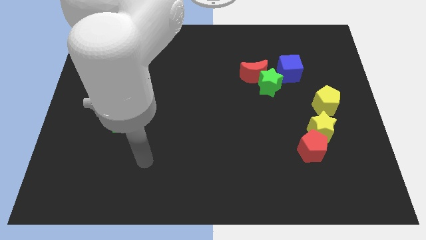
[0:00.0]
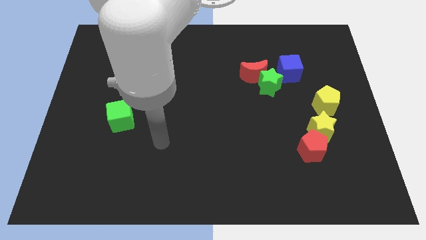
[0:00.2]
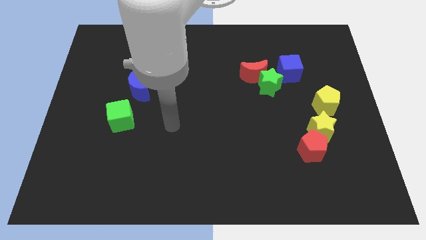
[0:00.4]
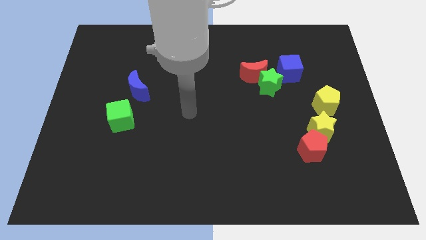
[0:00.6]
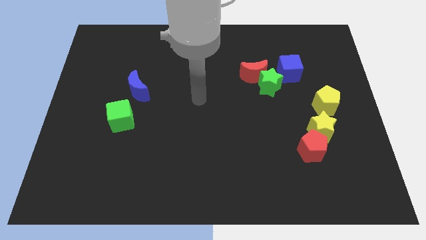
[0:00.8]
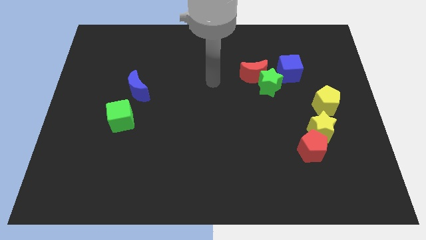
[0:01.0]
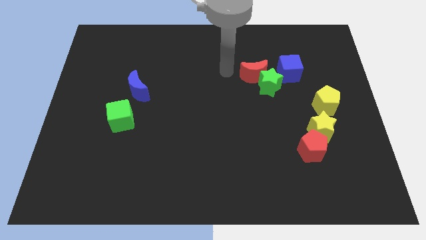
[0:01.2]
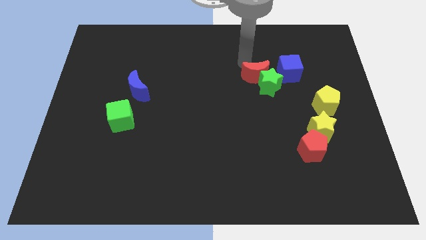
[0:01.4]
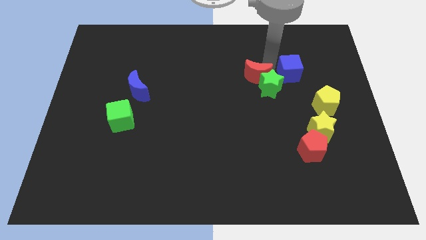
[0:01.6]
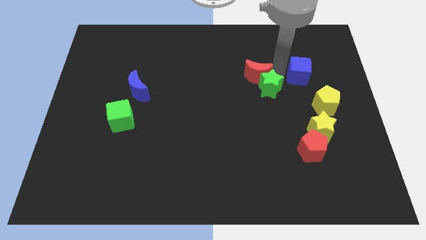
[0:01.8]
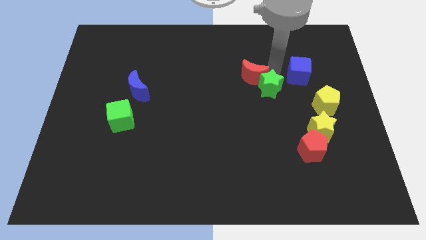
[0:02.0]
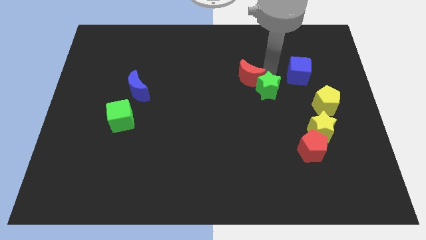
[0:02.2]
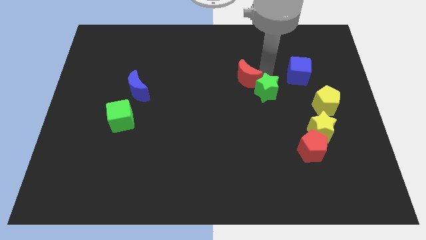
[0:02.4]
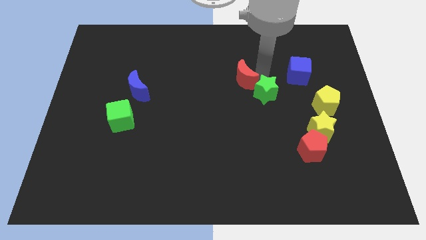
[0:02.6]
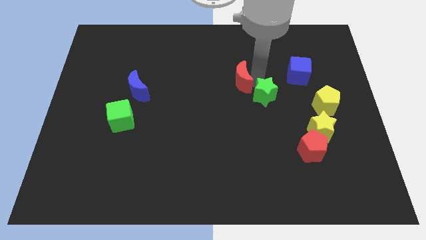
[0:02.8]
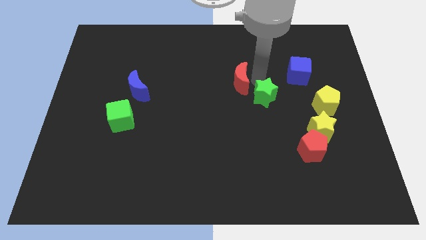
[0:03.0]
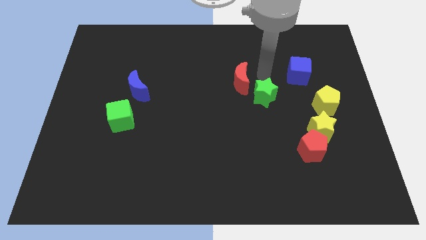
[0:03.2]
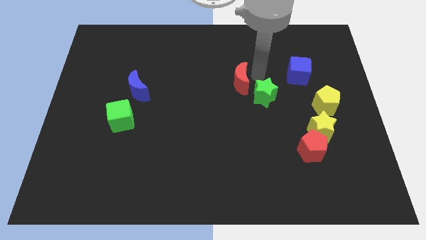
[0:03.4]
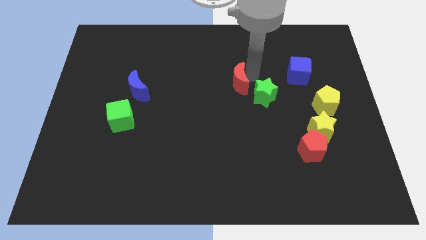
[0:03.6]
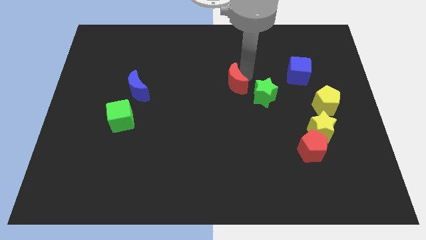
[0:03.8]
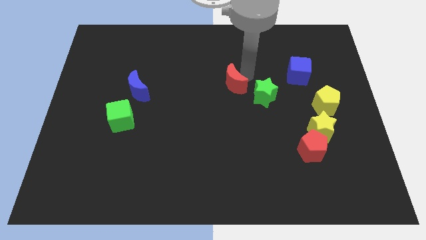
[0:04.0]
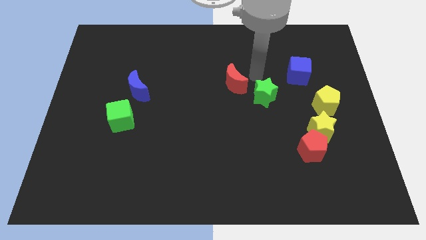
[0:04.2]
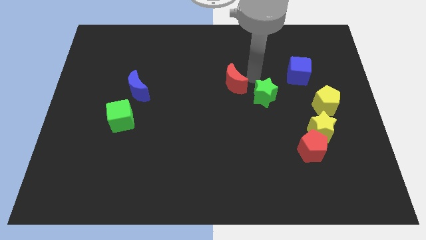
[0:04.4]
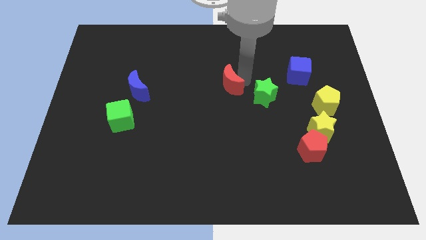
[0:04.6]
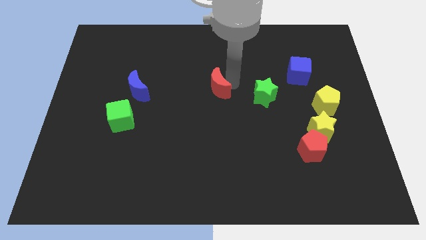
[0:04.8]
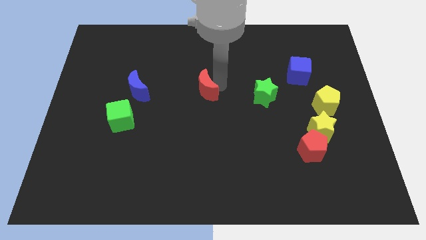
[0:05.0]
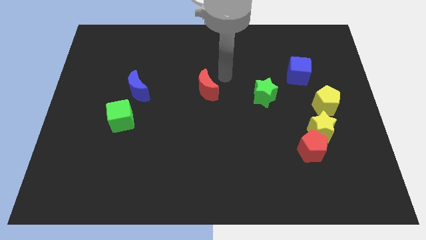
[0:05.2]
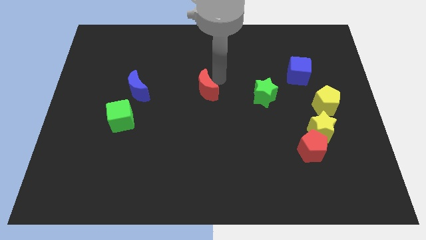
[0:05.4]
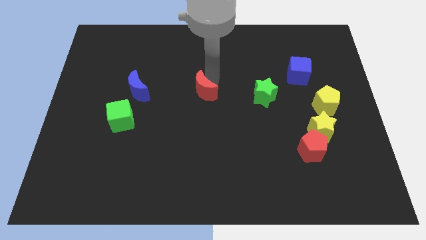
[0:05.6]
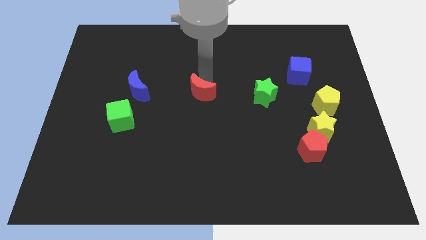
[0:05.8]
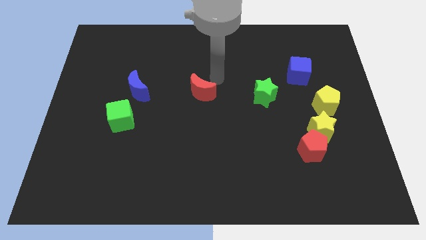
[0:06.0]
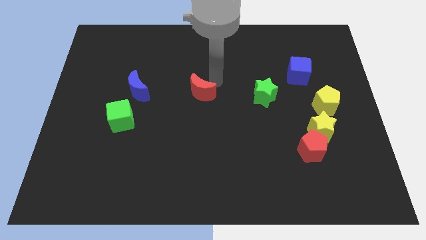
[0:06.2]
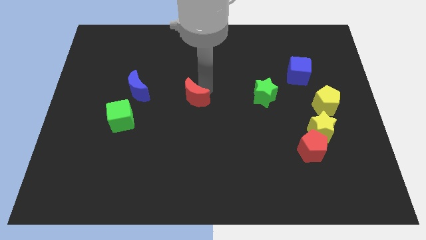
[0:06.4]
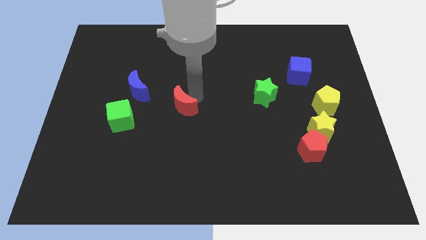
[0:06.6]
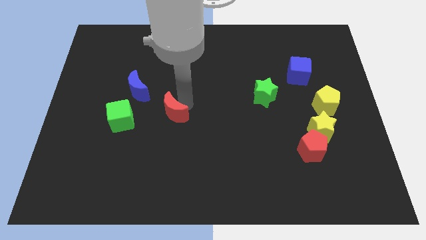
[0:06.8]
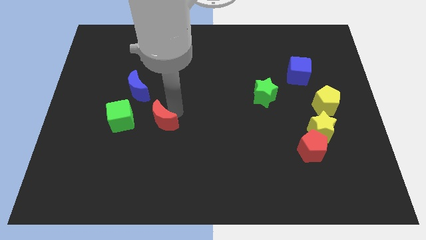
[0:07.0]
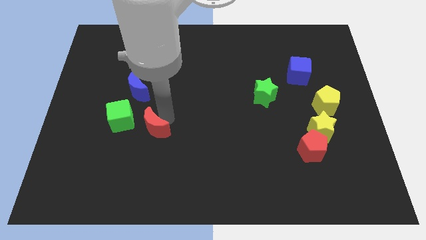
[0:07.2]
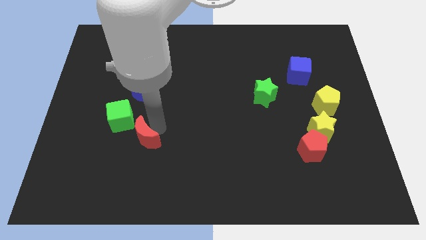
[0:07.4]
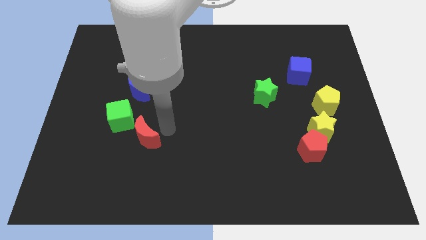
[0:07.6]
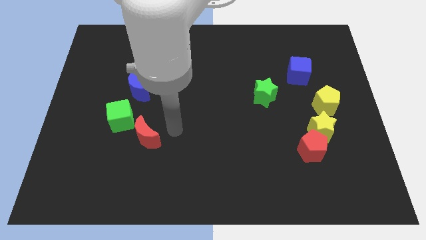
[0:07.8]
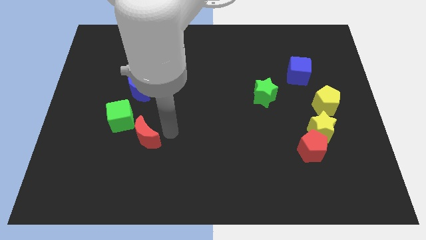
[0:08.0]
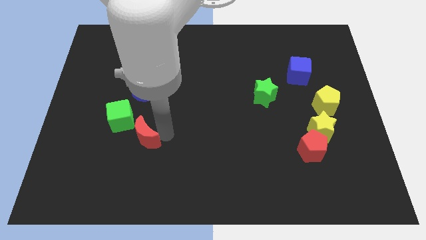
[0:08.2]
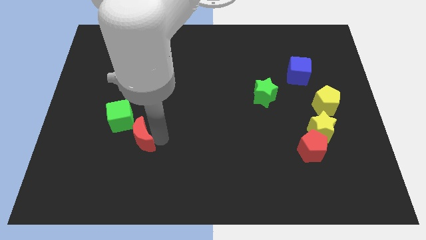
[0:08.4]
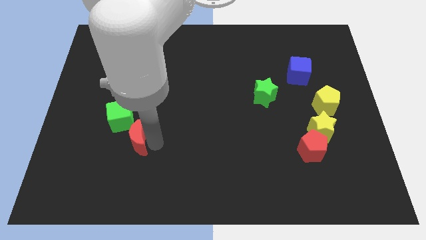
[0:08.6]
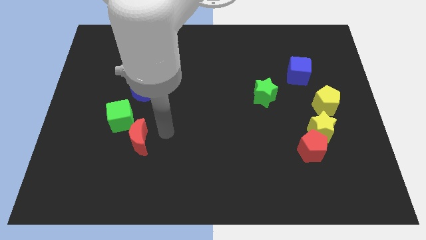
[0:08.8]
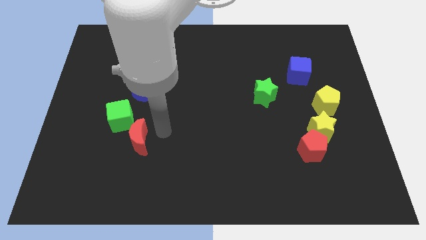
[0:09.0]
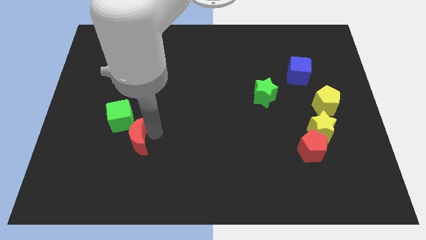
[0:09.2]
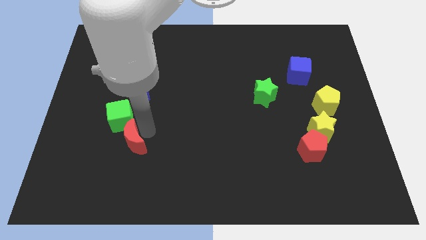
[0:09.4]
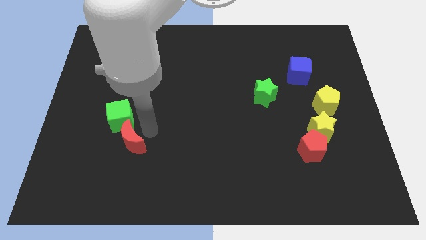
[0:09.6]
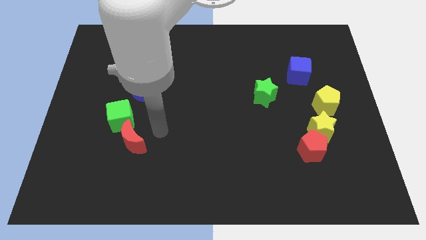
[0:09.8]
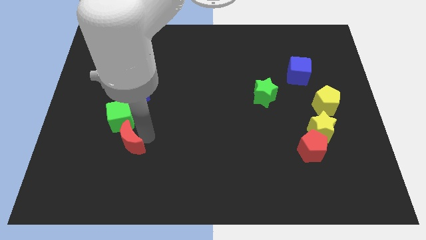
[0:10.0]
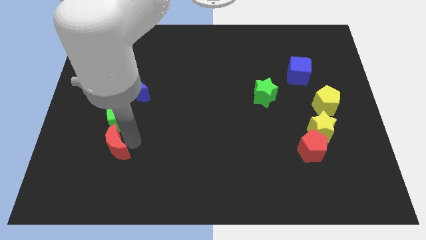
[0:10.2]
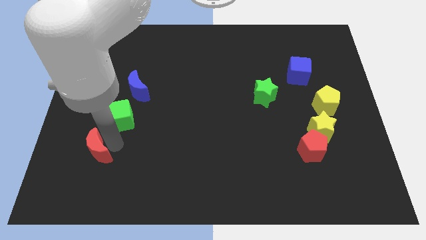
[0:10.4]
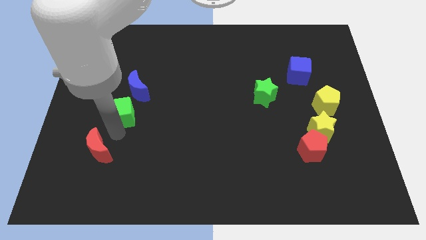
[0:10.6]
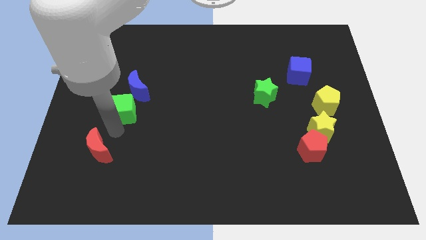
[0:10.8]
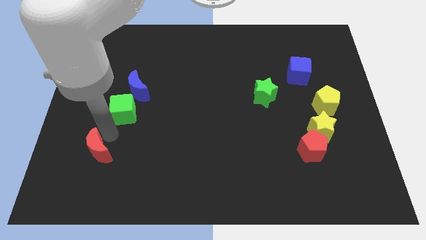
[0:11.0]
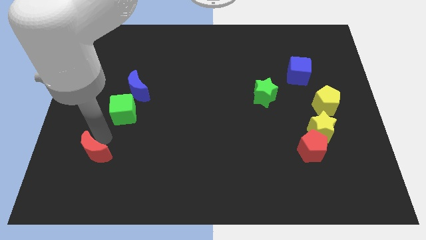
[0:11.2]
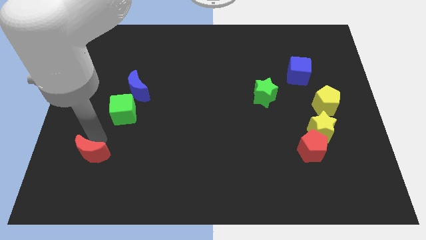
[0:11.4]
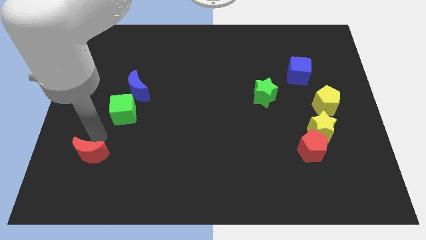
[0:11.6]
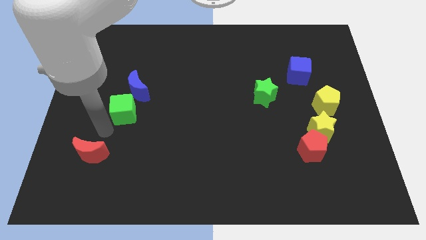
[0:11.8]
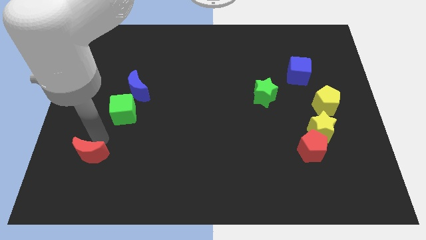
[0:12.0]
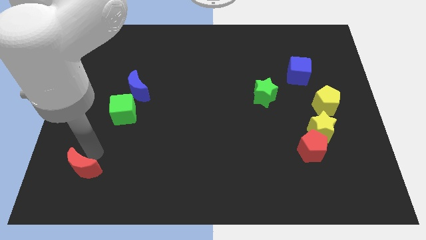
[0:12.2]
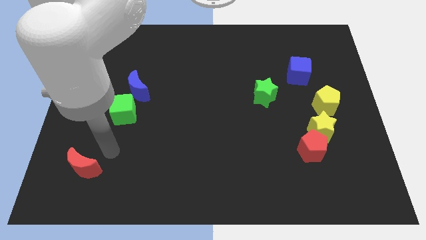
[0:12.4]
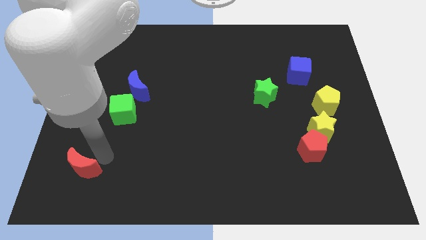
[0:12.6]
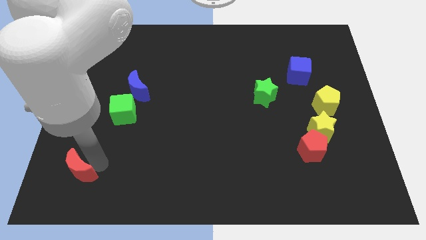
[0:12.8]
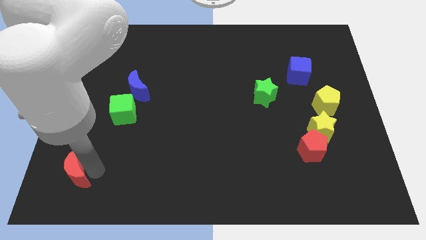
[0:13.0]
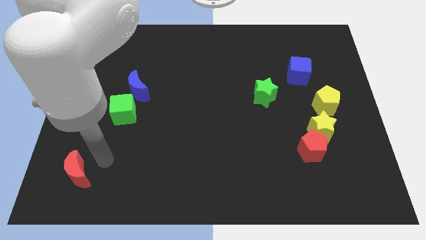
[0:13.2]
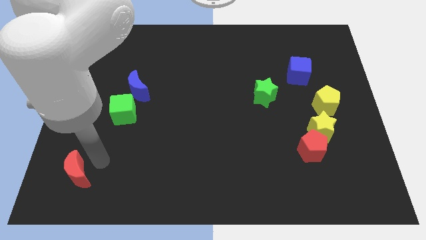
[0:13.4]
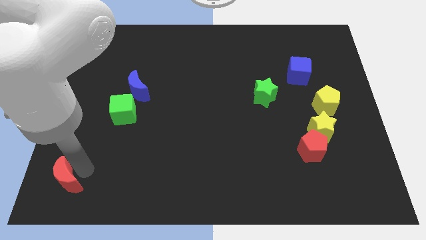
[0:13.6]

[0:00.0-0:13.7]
put the red moon to the bottom left corner

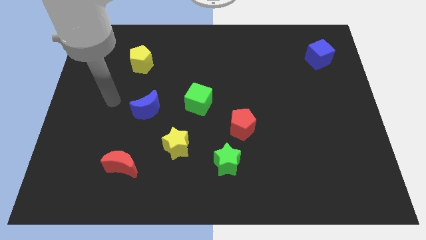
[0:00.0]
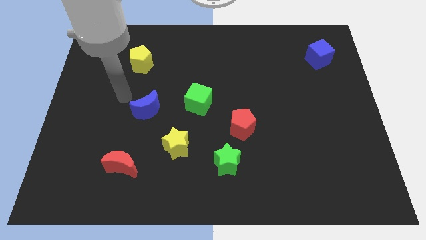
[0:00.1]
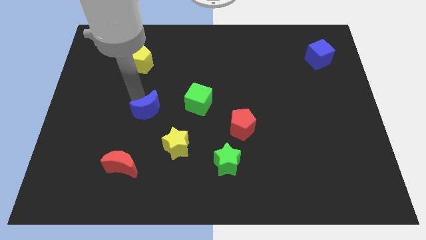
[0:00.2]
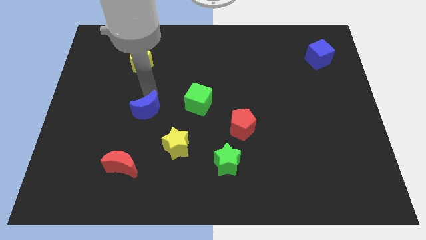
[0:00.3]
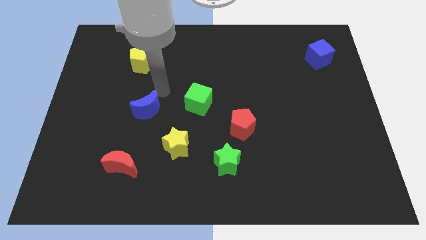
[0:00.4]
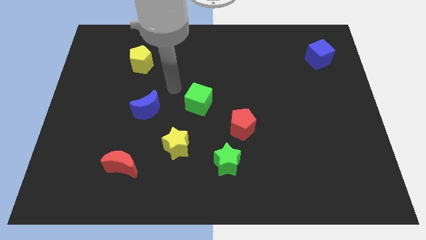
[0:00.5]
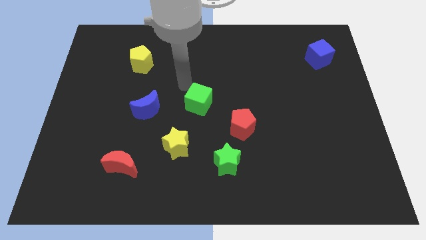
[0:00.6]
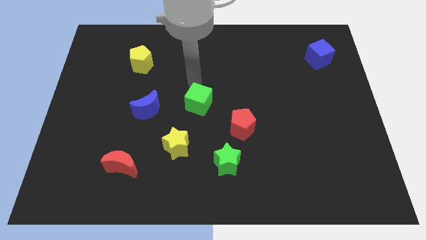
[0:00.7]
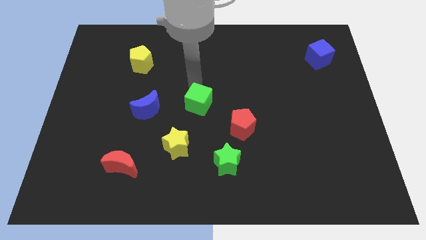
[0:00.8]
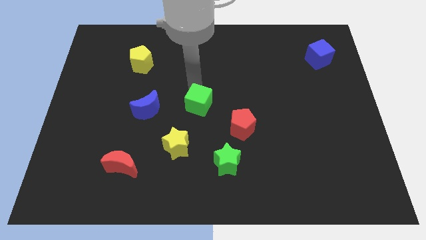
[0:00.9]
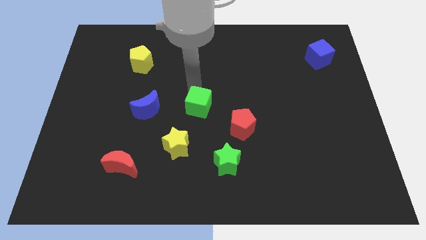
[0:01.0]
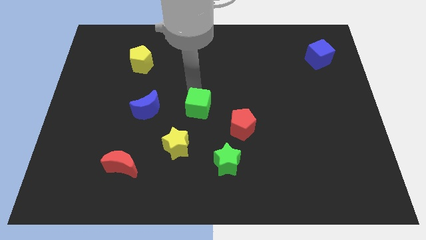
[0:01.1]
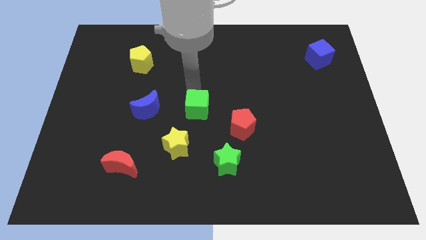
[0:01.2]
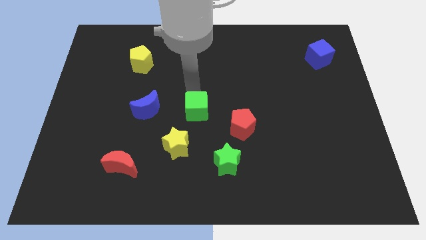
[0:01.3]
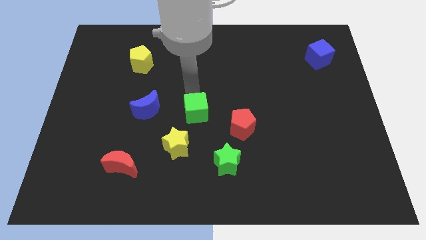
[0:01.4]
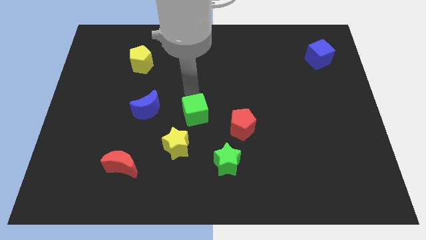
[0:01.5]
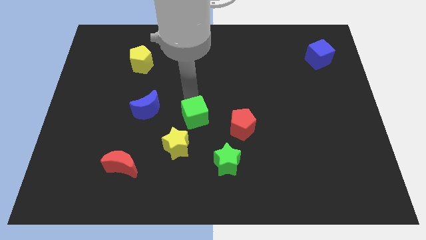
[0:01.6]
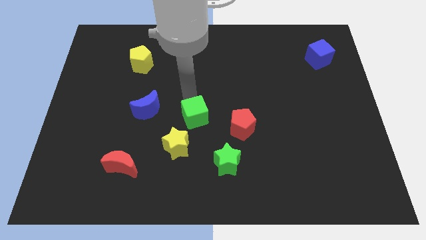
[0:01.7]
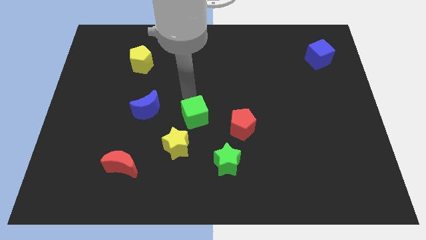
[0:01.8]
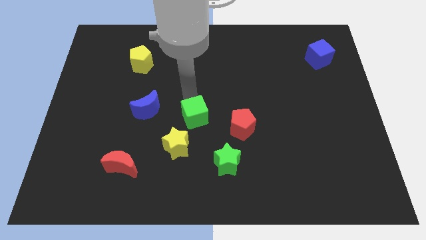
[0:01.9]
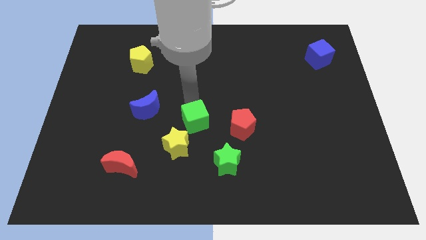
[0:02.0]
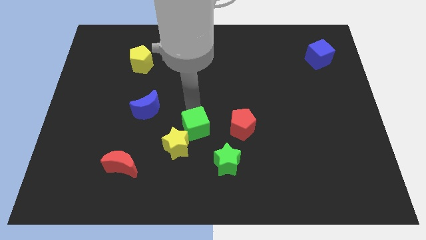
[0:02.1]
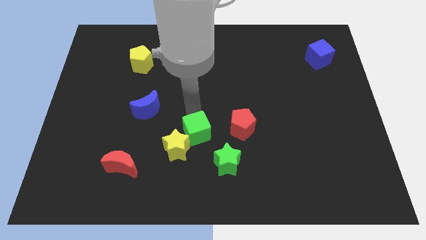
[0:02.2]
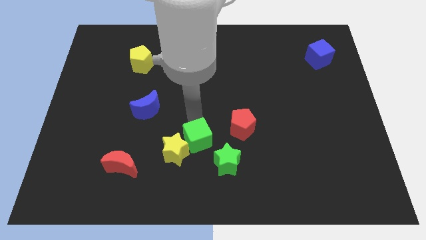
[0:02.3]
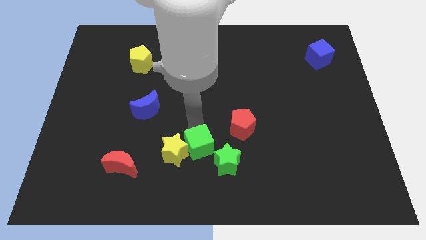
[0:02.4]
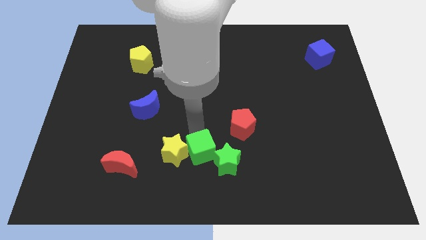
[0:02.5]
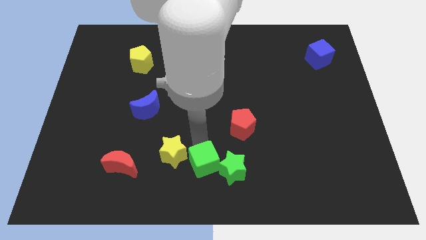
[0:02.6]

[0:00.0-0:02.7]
push the green cube to the bottom
